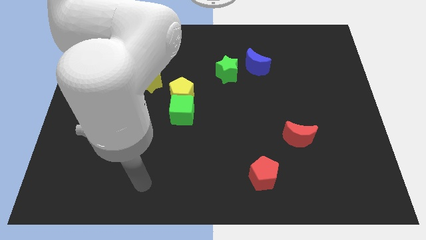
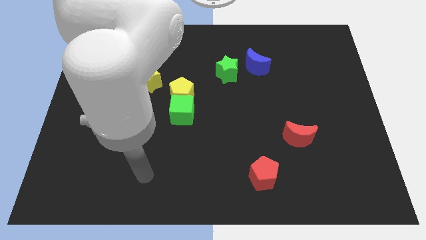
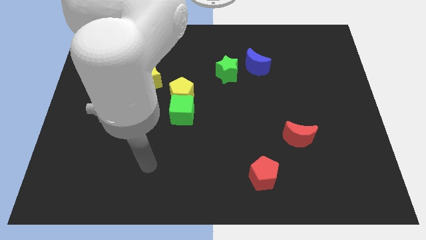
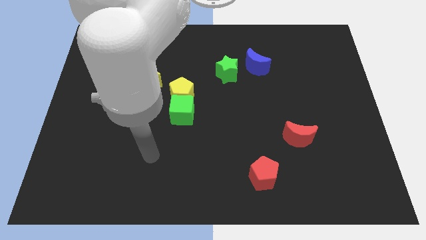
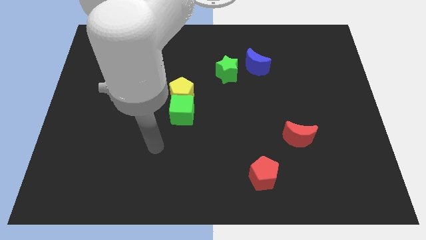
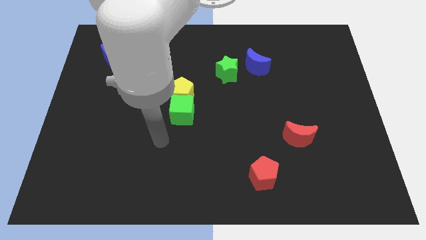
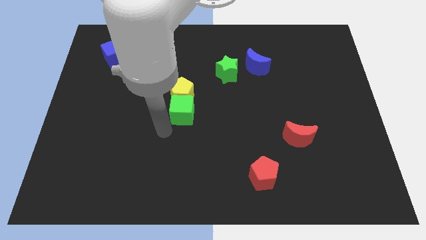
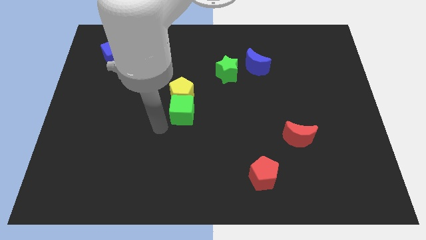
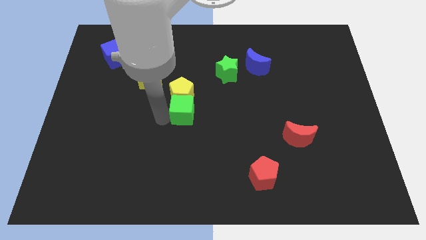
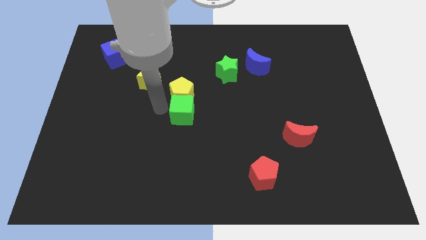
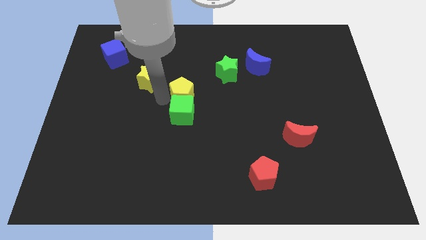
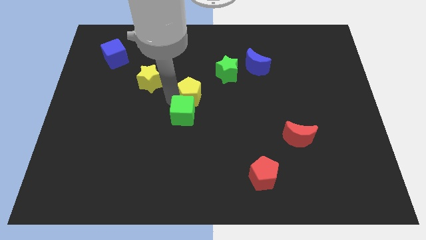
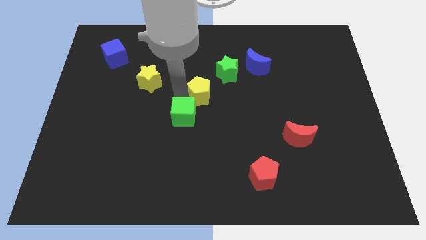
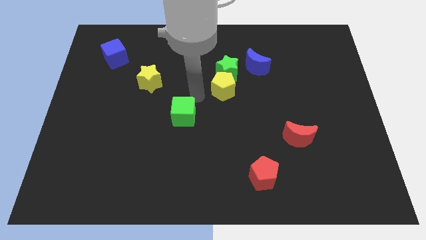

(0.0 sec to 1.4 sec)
move the green cube away from the yellow pentagon

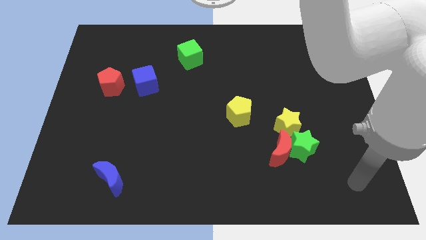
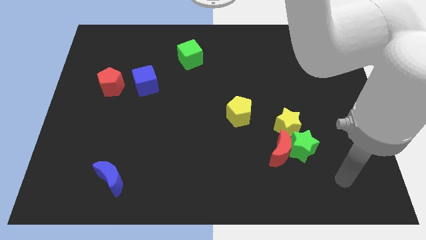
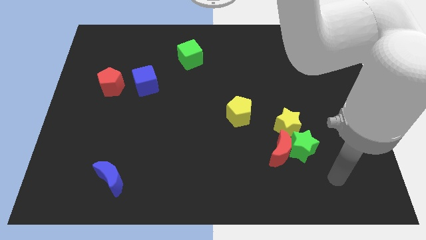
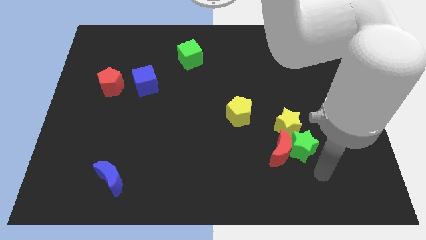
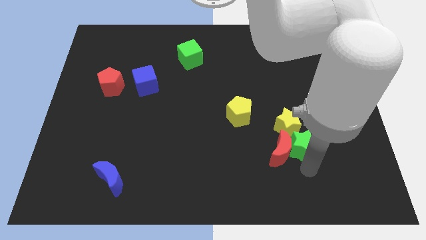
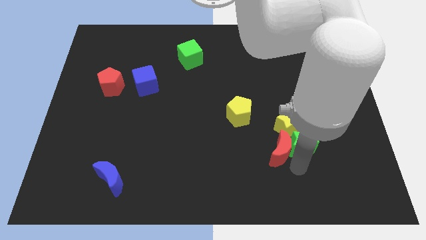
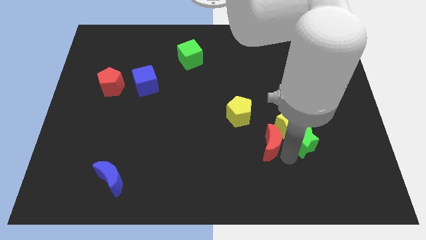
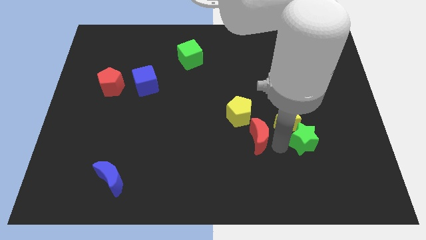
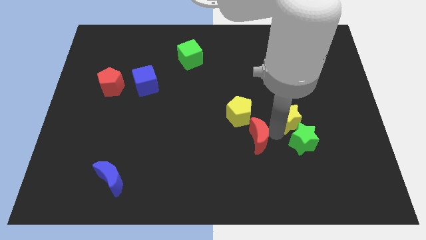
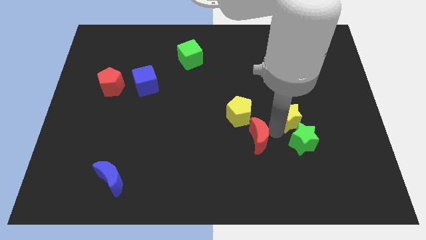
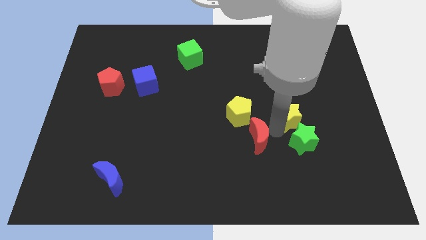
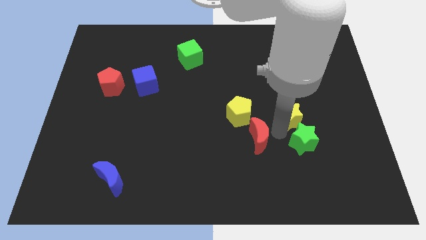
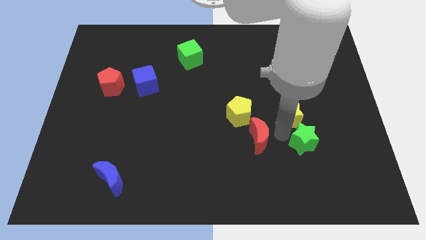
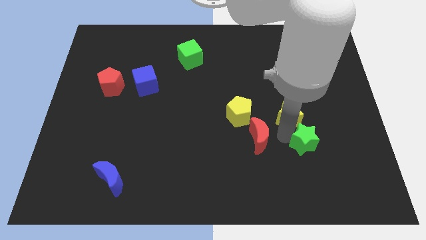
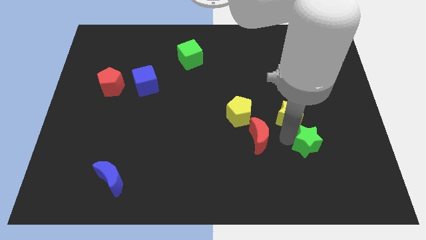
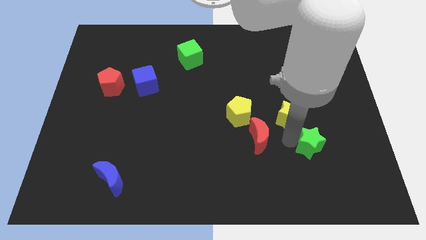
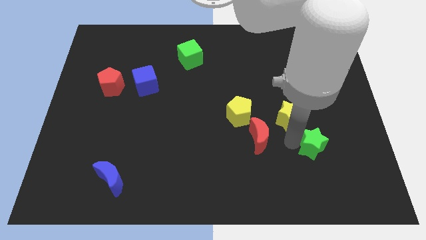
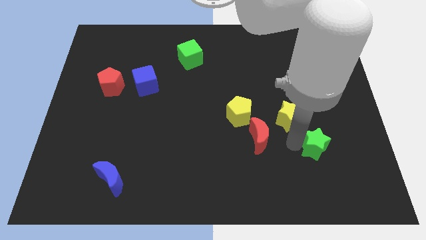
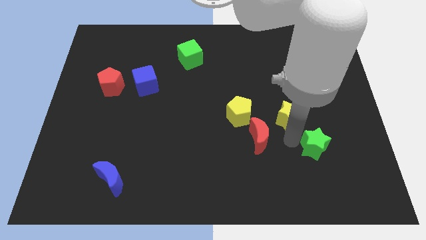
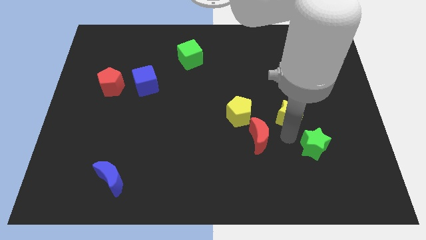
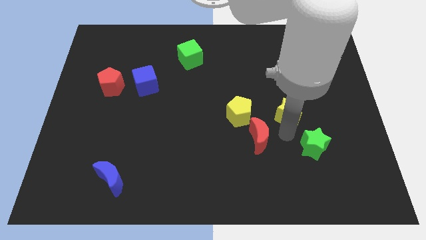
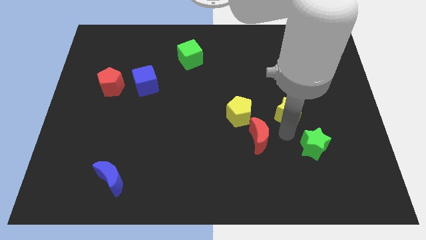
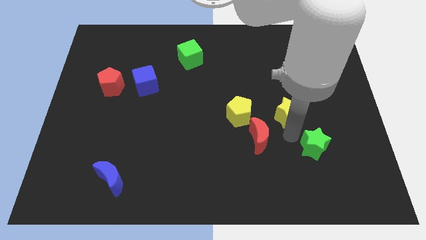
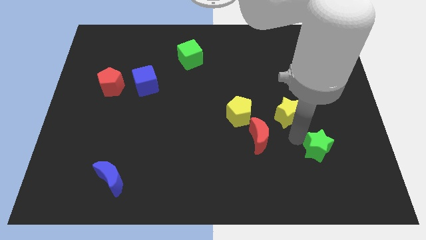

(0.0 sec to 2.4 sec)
separate the green star from the red moon and yellow star

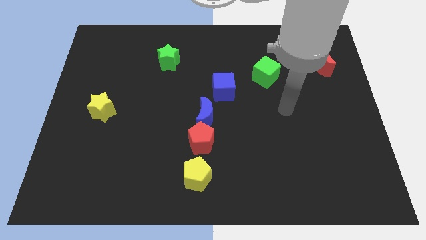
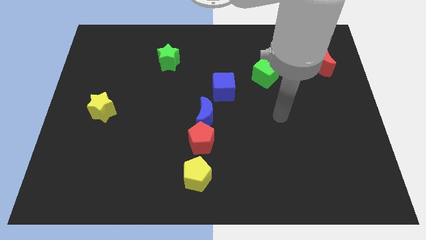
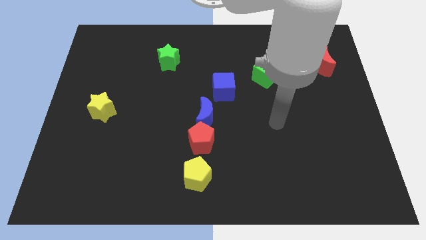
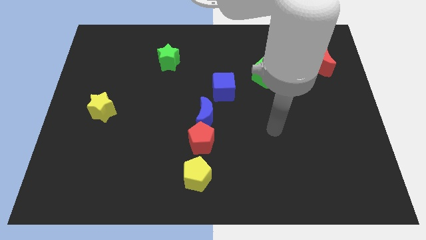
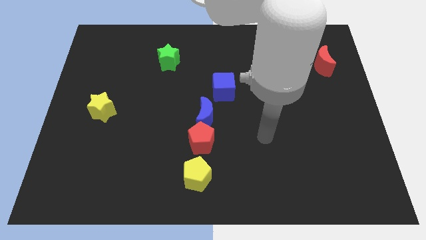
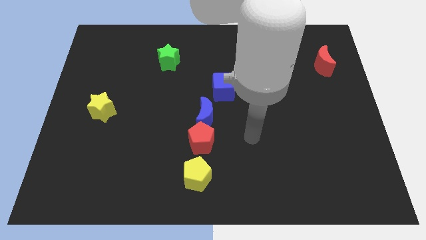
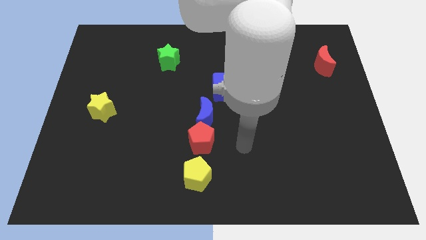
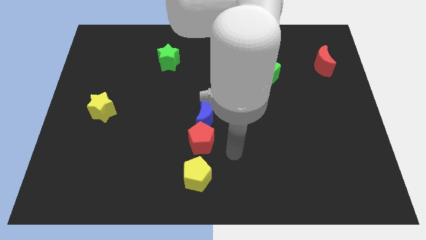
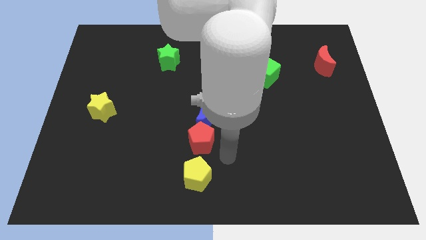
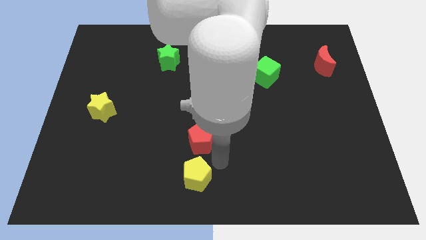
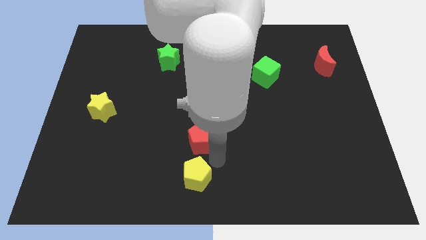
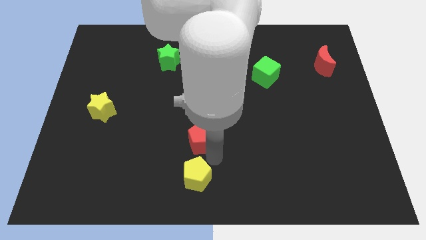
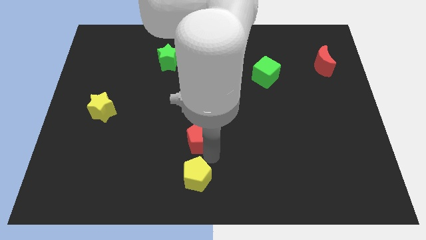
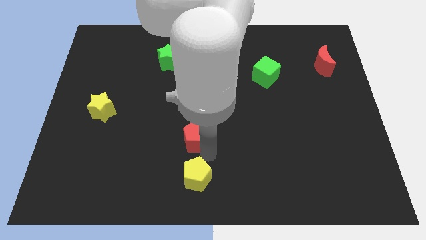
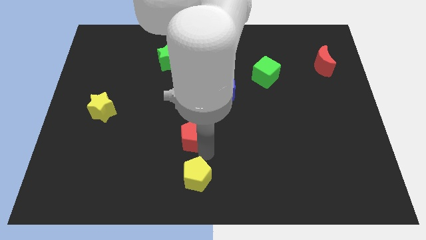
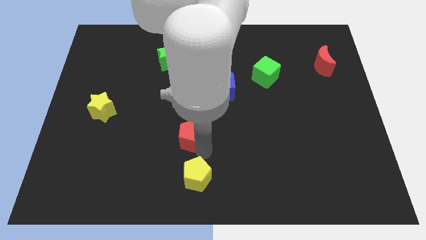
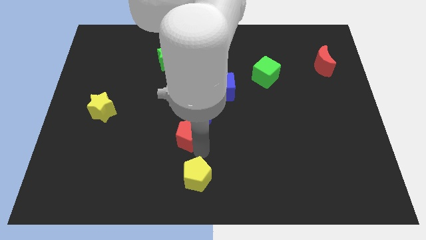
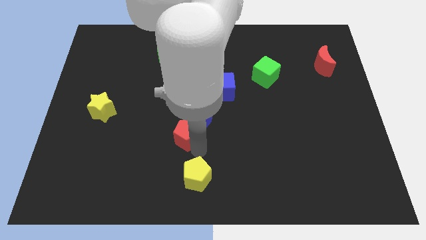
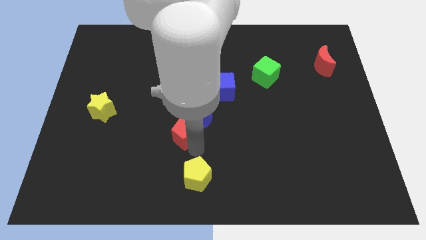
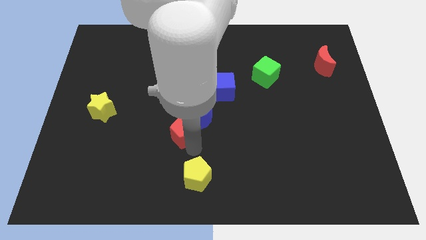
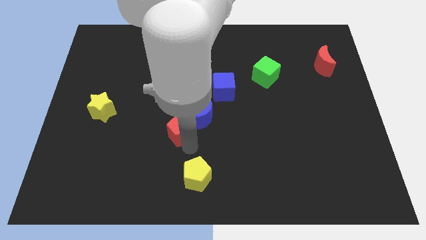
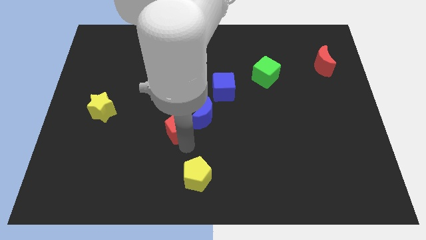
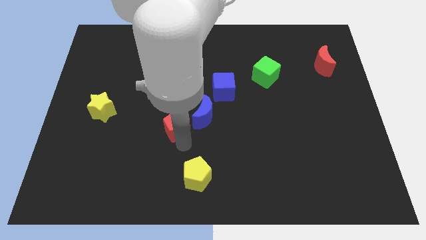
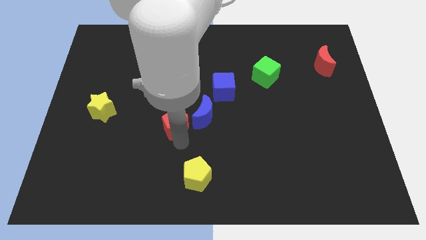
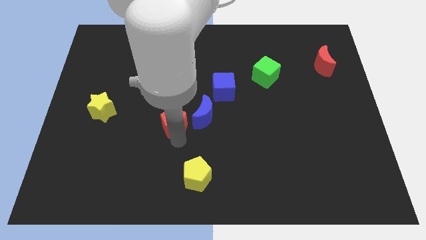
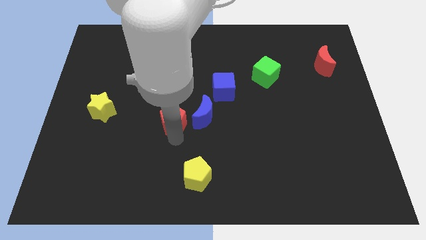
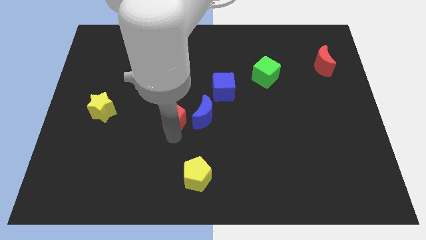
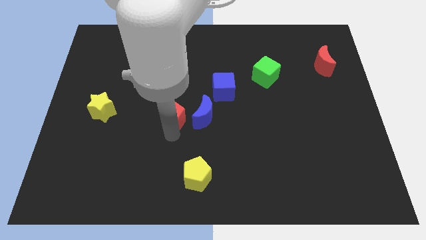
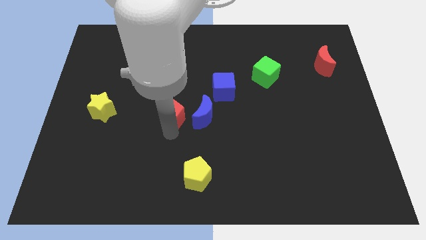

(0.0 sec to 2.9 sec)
pull the red pentagon apart from the blue moon and yellow pentagon

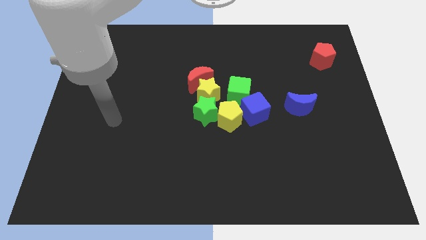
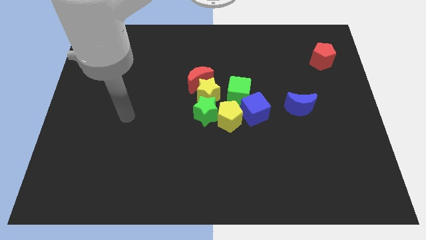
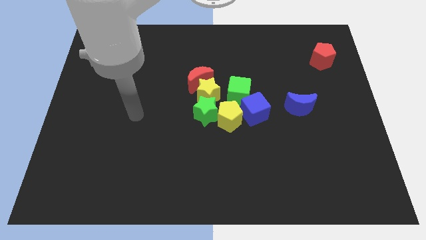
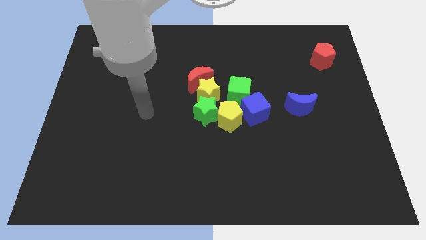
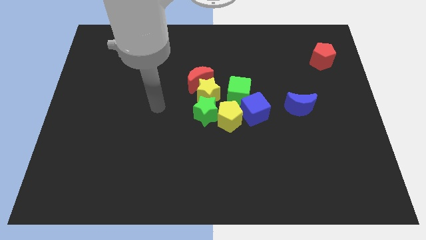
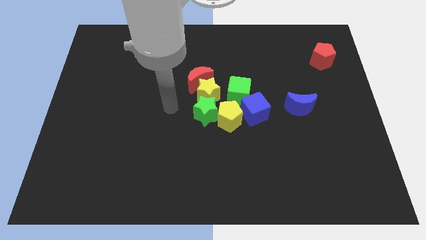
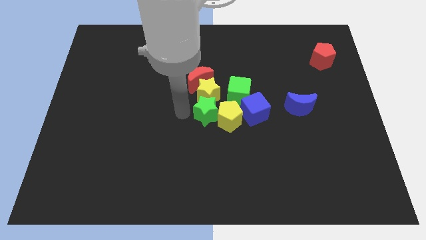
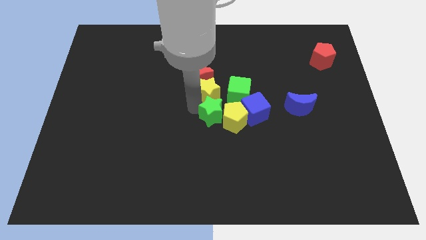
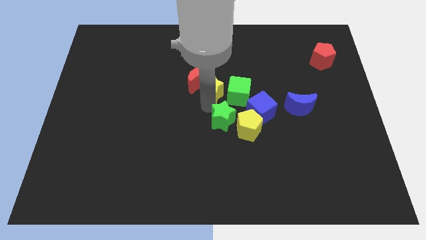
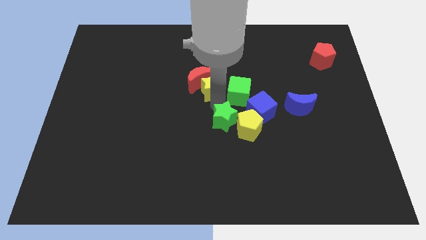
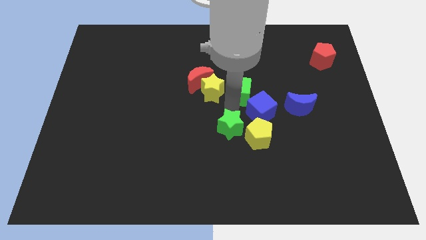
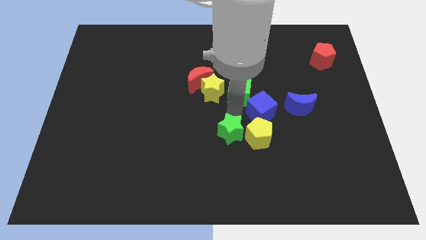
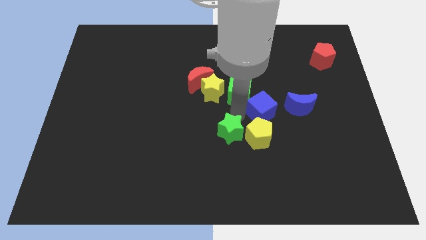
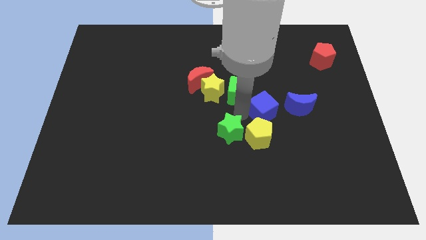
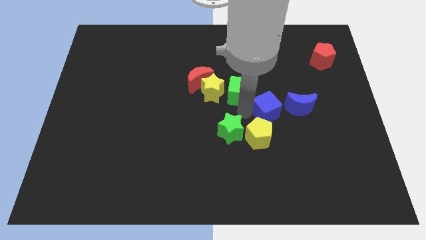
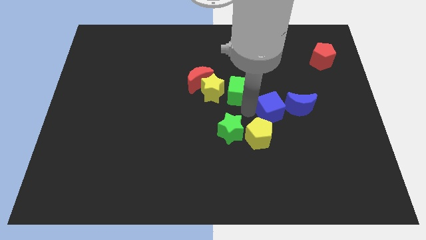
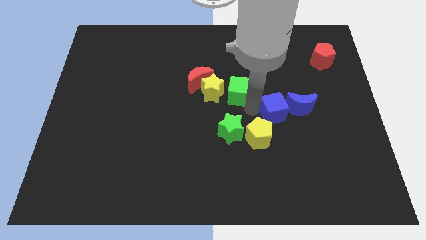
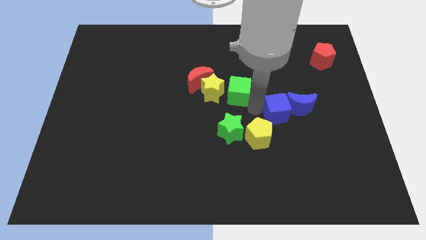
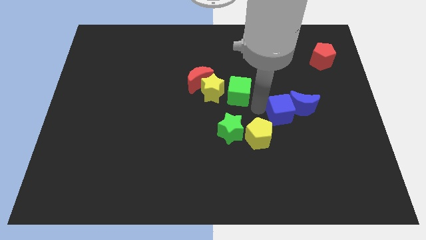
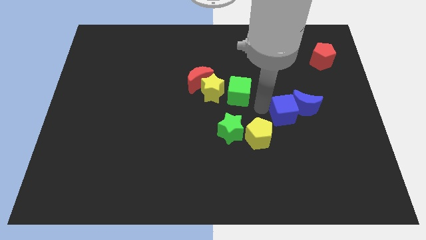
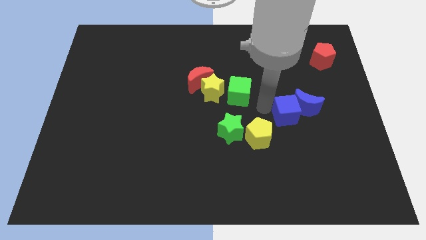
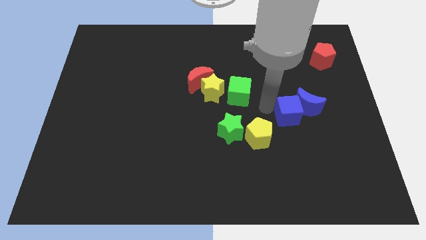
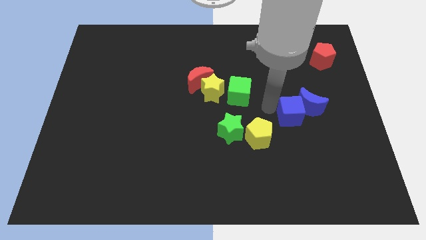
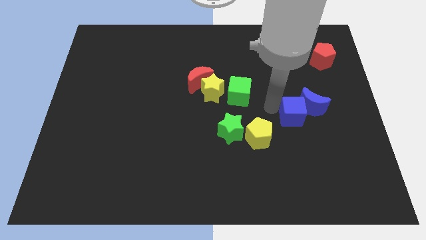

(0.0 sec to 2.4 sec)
separate the blue cube from the yellow pentagon and green cube
